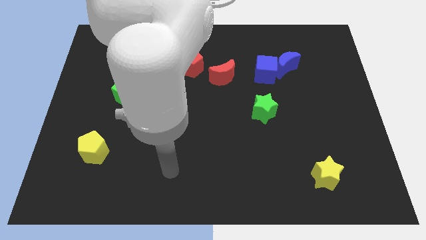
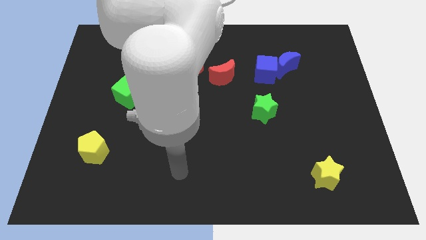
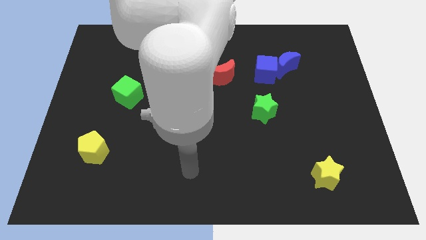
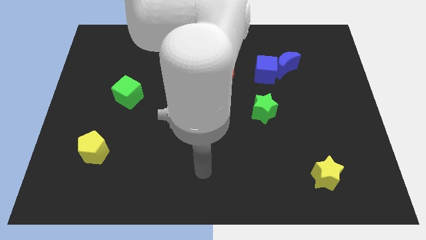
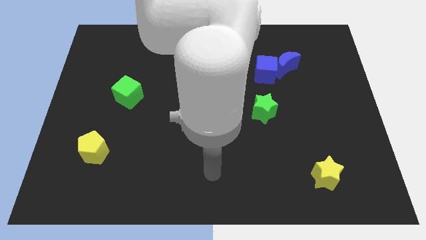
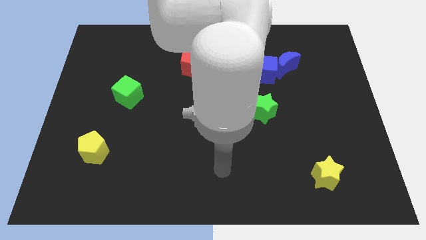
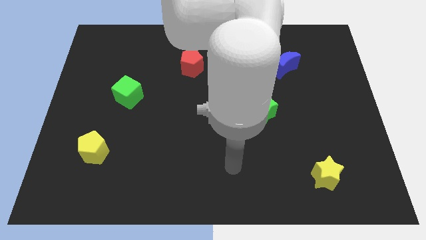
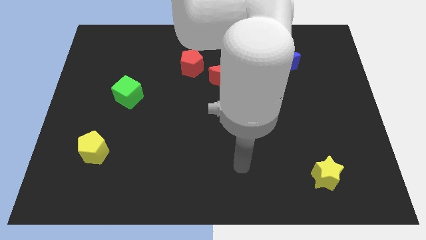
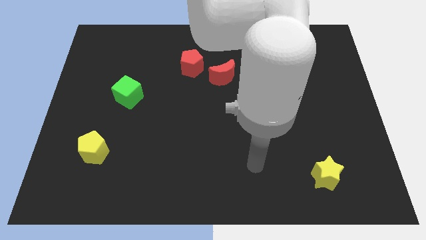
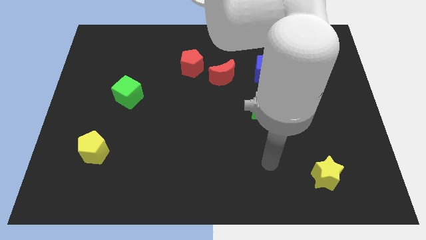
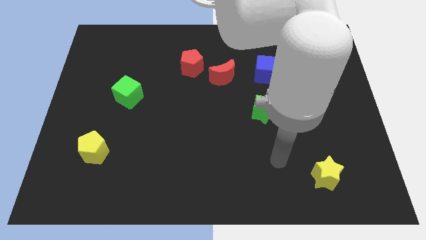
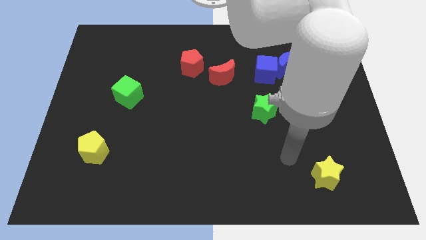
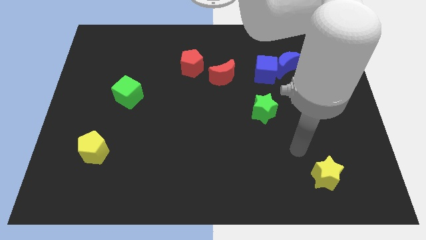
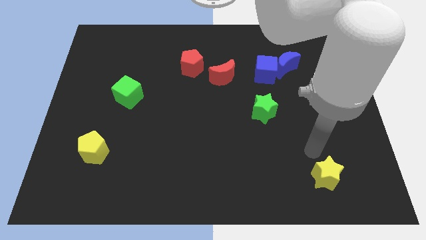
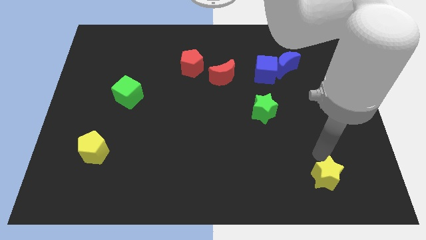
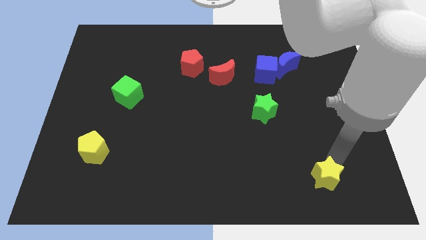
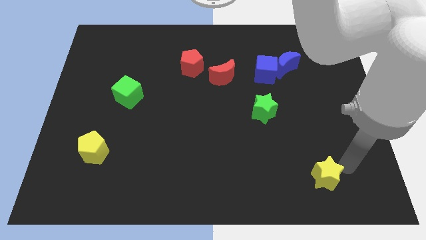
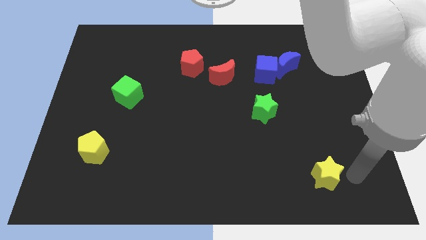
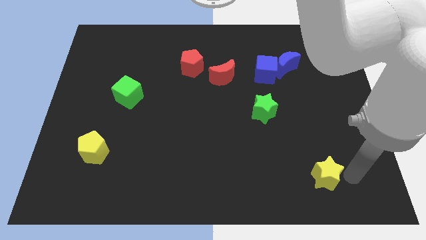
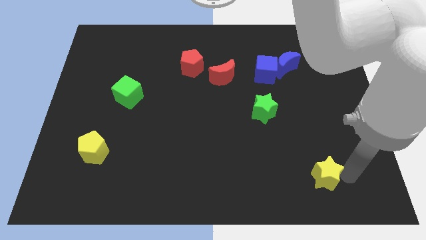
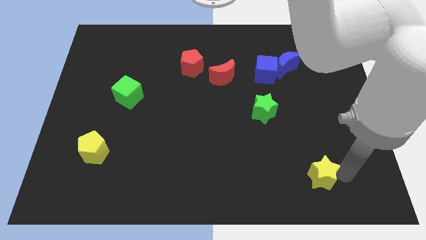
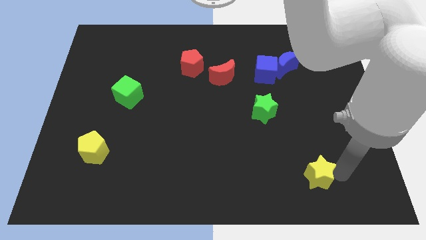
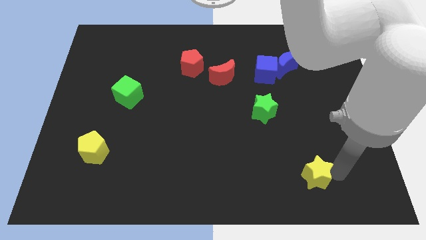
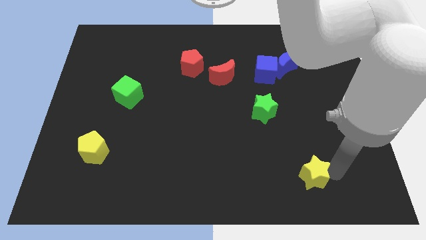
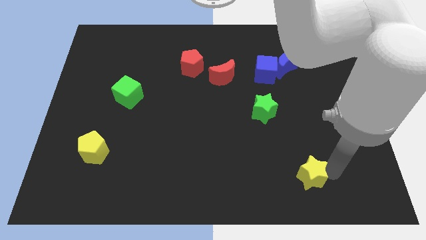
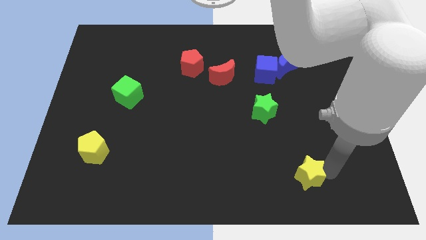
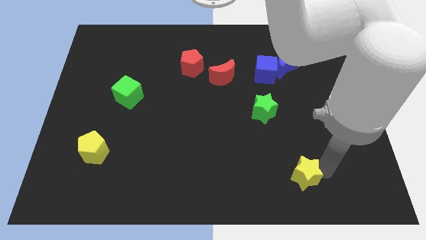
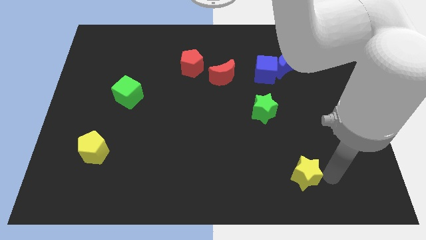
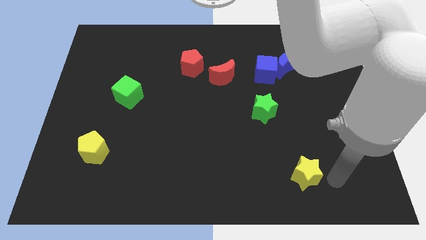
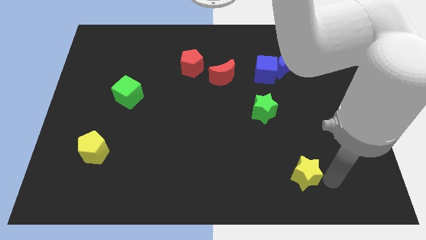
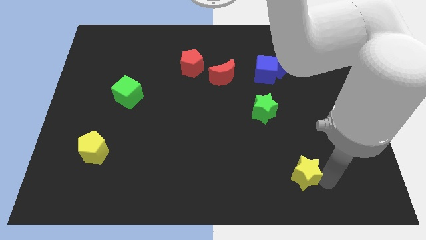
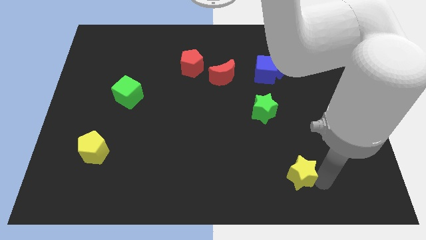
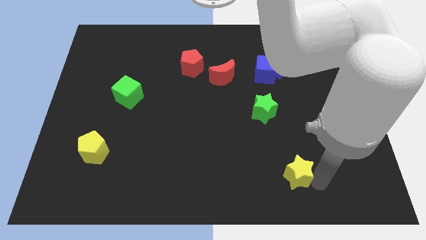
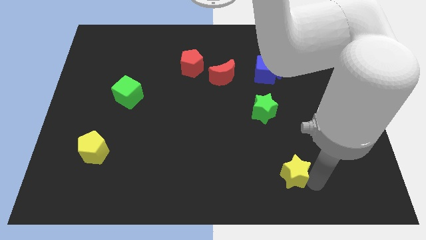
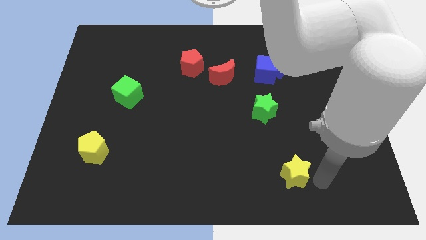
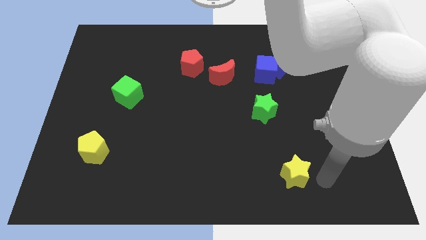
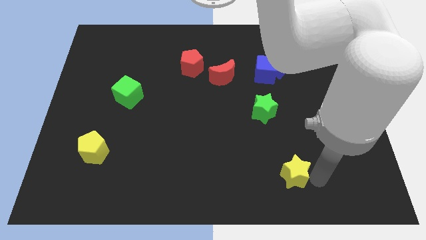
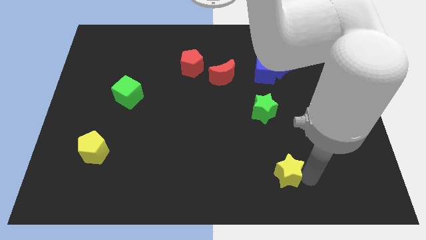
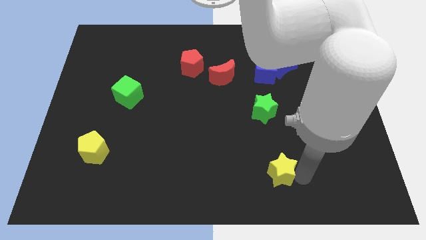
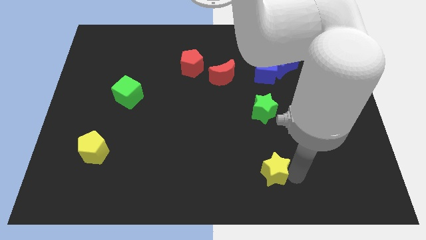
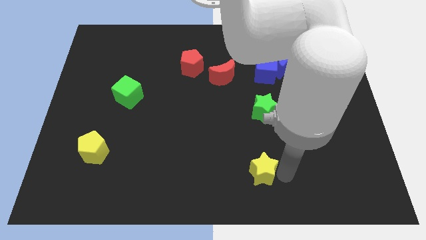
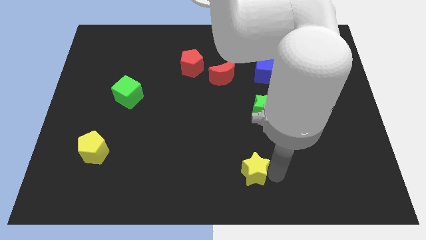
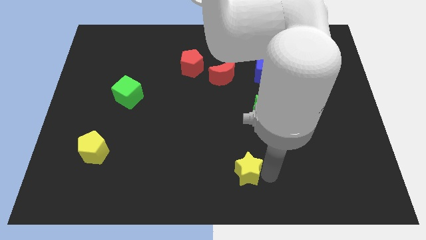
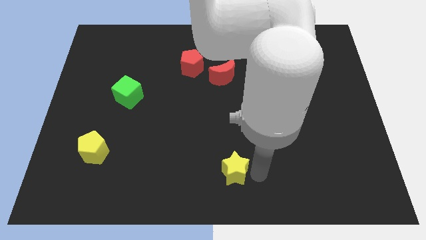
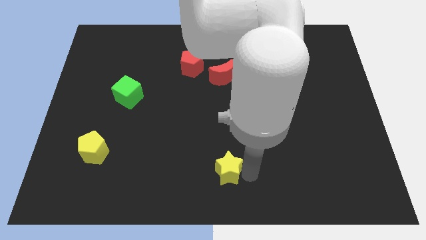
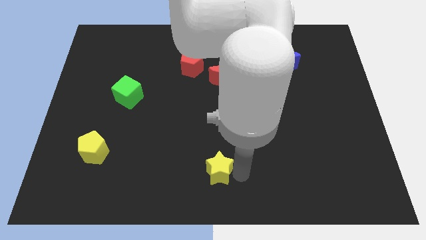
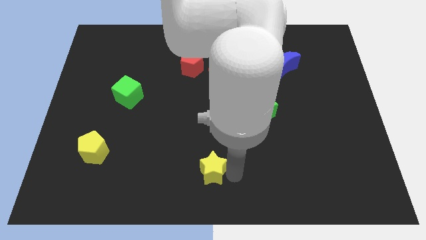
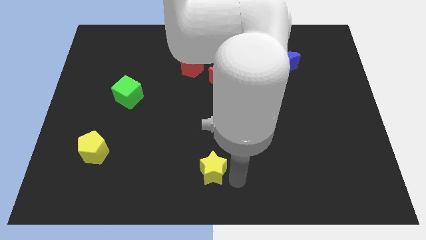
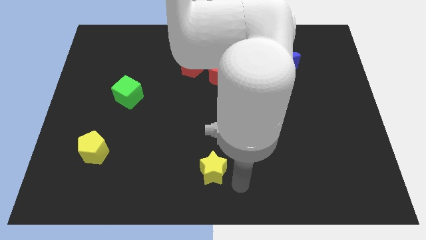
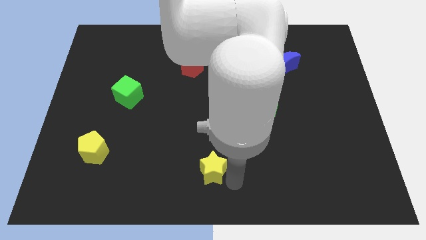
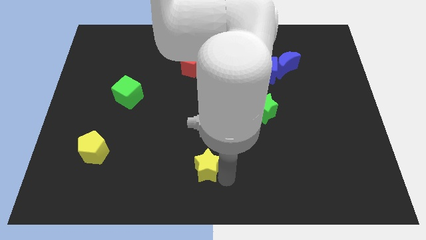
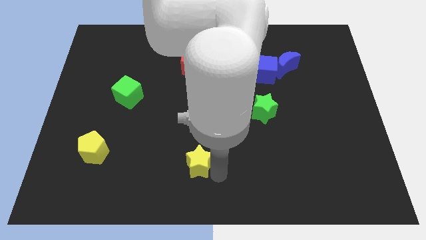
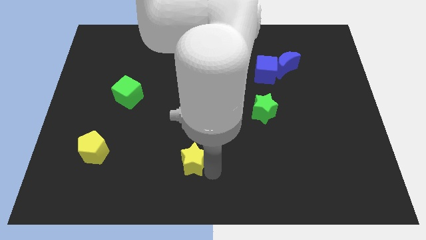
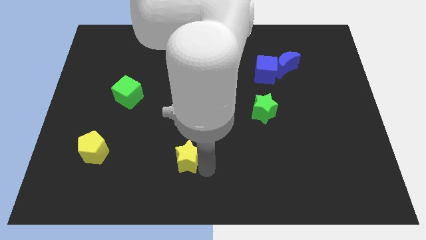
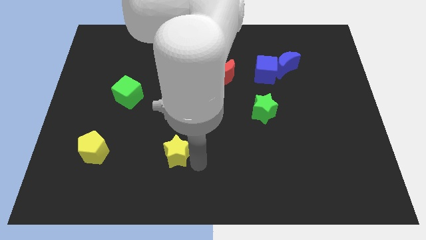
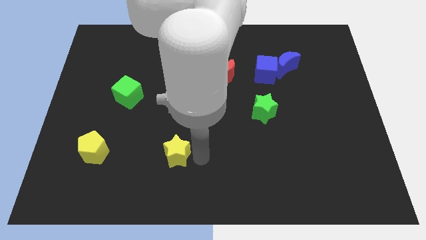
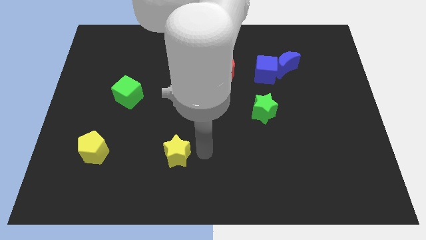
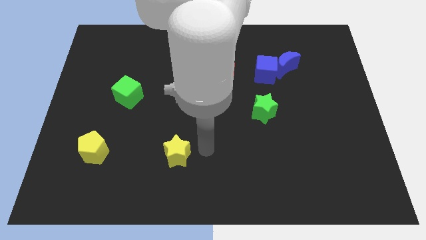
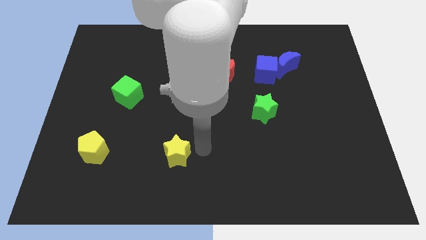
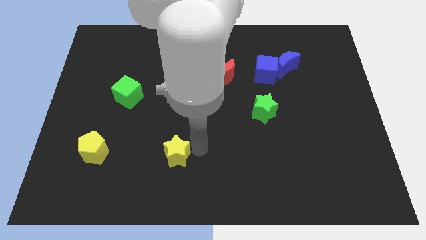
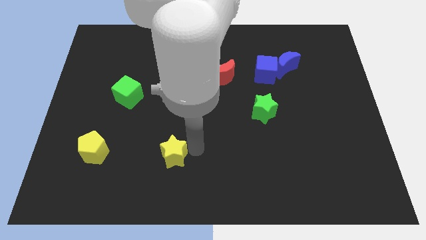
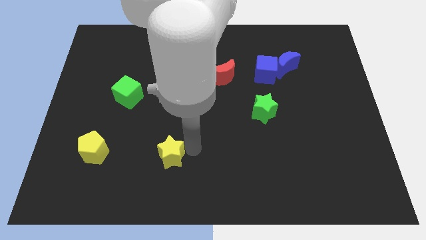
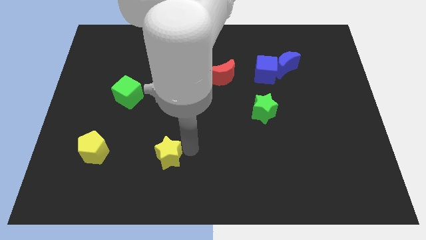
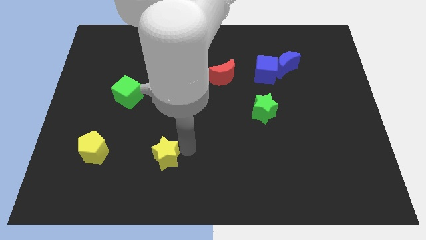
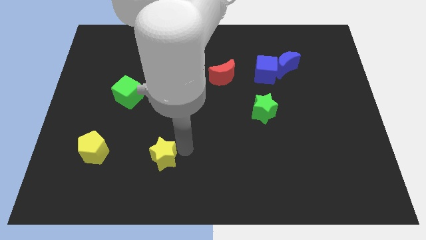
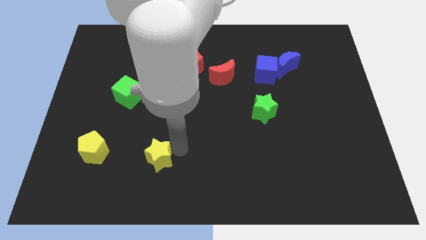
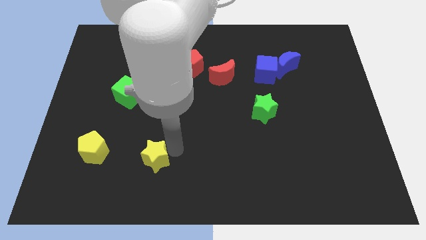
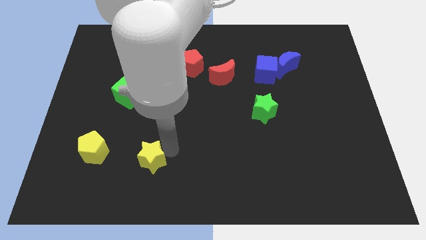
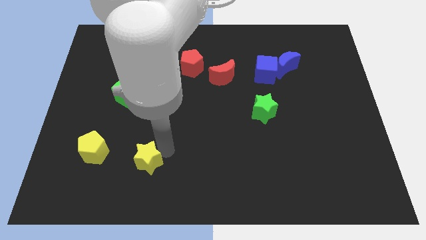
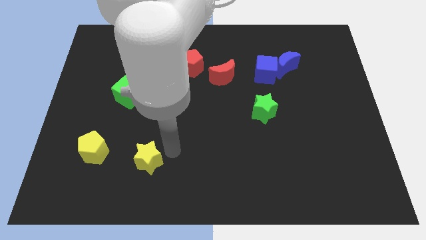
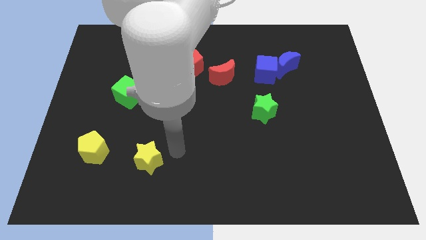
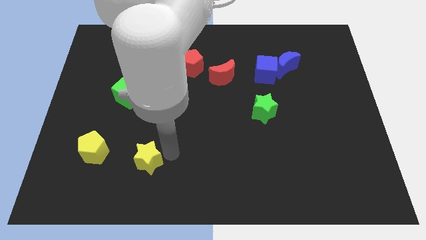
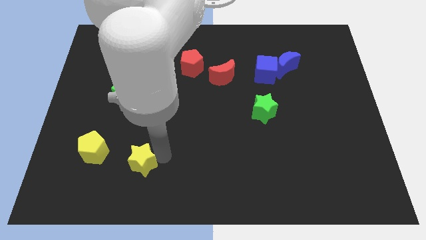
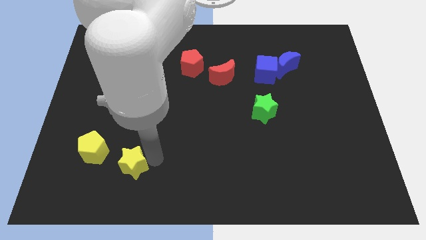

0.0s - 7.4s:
put the yellow star to the bottom right of the yellow pentagon
